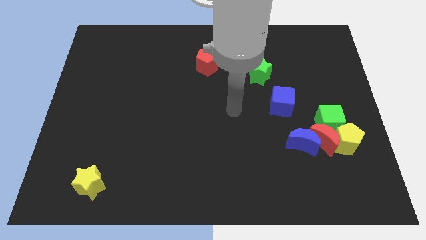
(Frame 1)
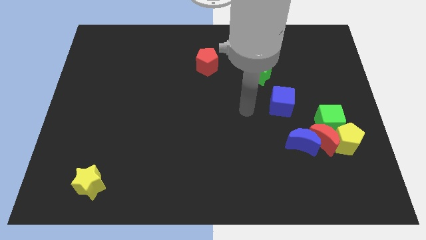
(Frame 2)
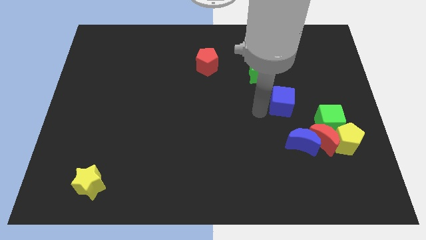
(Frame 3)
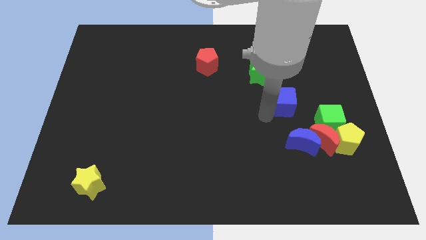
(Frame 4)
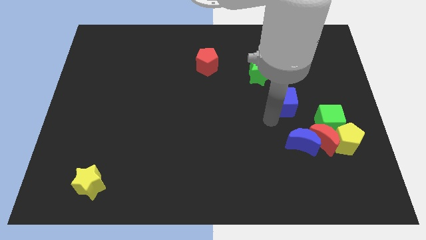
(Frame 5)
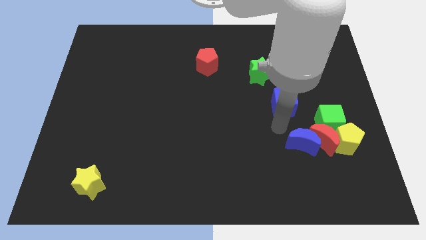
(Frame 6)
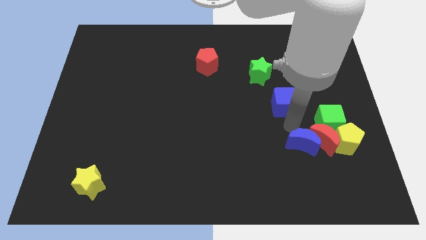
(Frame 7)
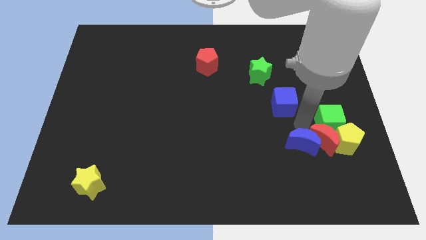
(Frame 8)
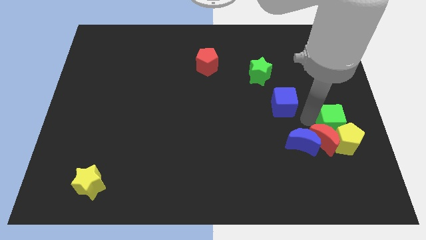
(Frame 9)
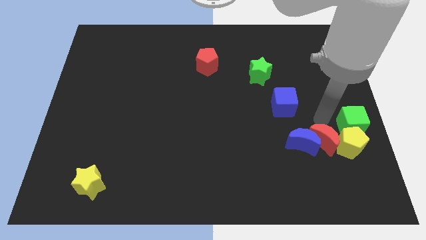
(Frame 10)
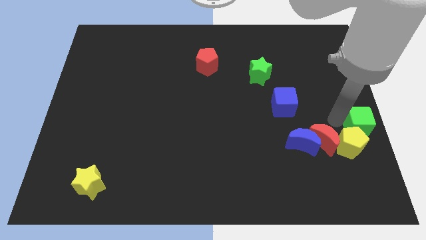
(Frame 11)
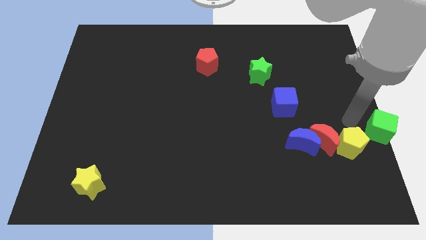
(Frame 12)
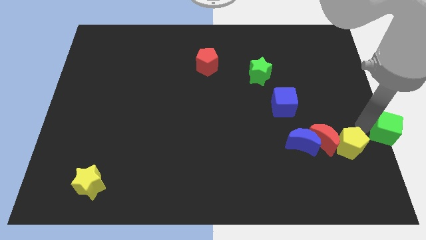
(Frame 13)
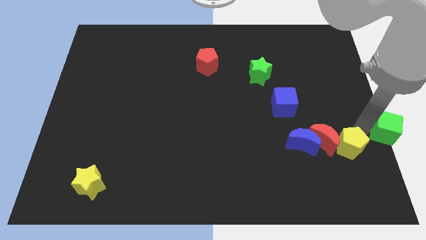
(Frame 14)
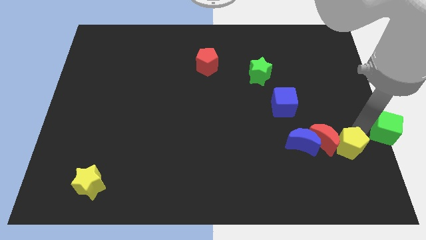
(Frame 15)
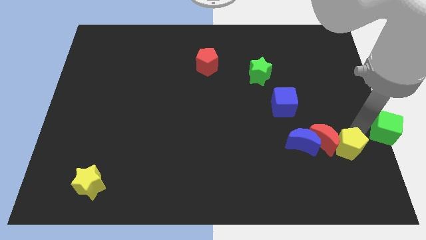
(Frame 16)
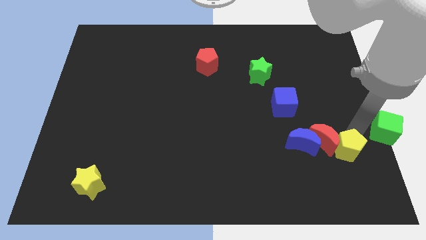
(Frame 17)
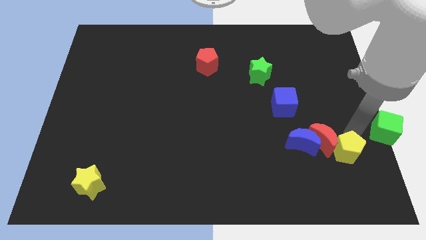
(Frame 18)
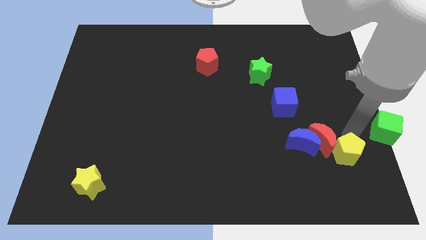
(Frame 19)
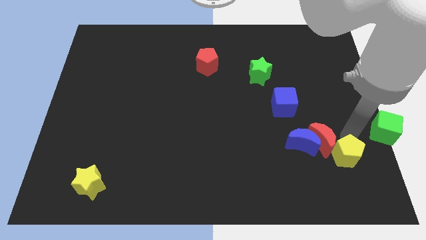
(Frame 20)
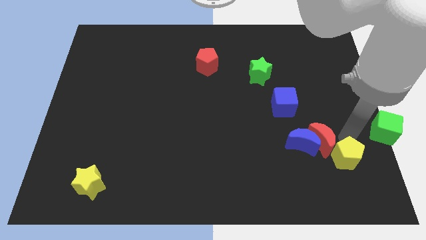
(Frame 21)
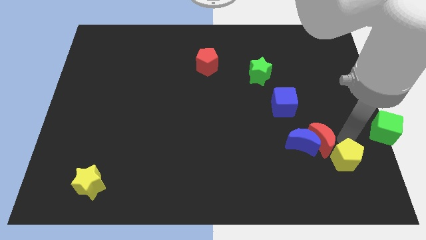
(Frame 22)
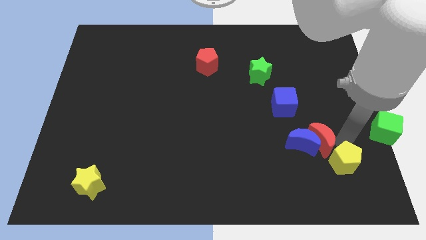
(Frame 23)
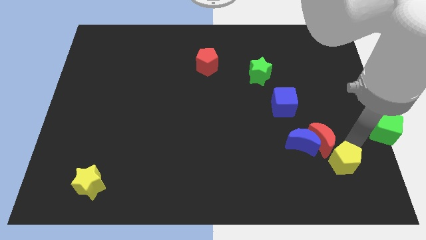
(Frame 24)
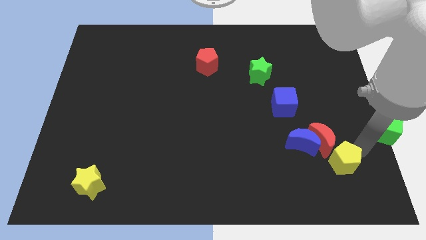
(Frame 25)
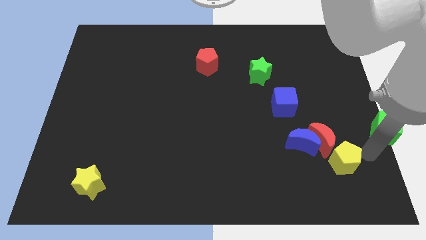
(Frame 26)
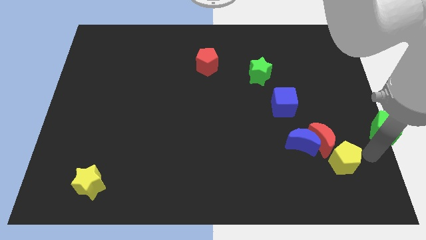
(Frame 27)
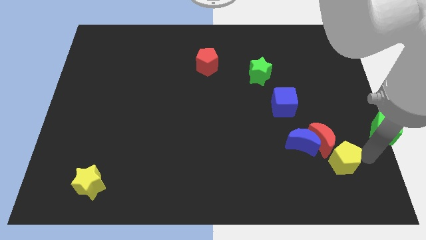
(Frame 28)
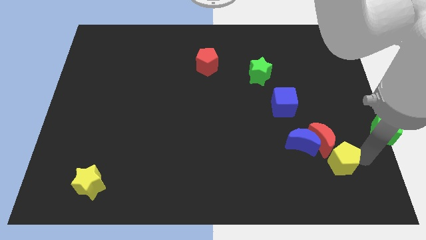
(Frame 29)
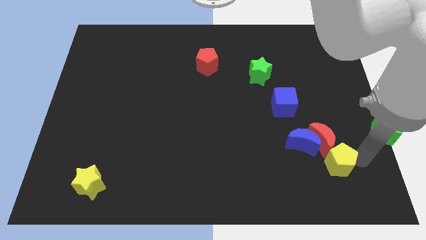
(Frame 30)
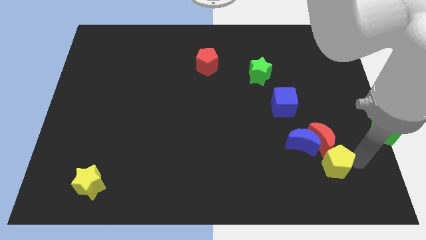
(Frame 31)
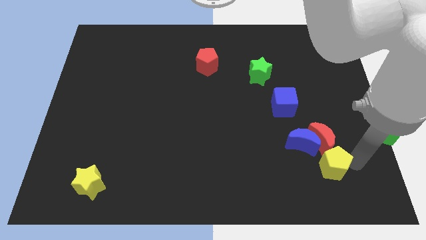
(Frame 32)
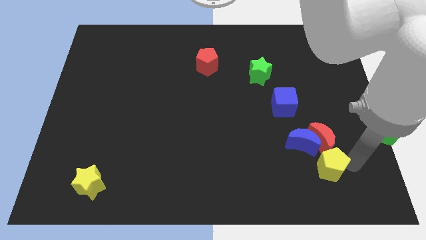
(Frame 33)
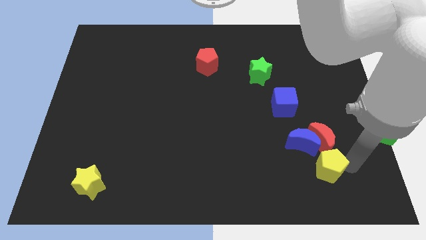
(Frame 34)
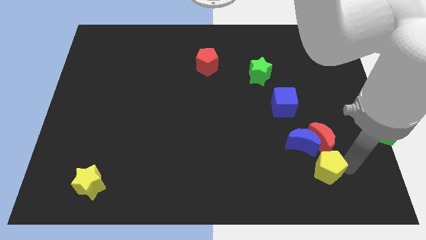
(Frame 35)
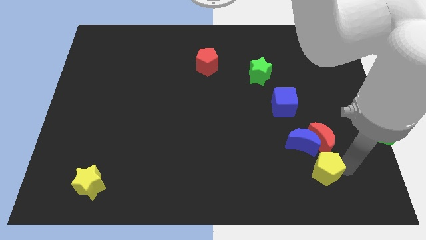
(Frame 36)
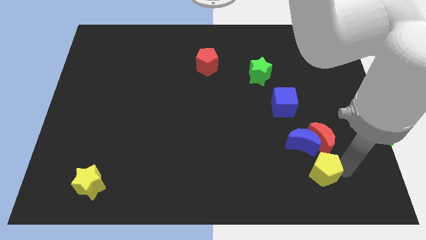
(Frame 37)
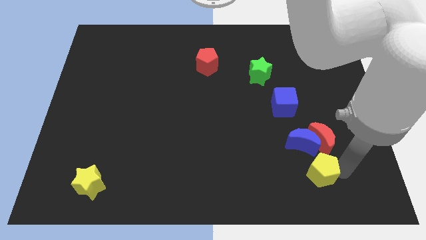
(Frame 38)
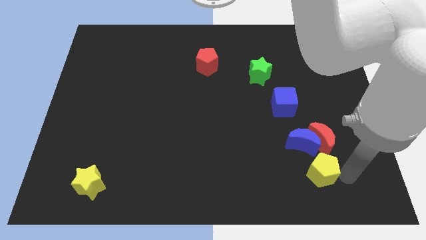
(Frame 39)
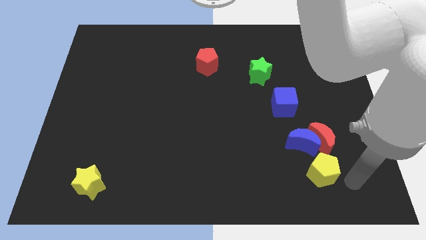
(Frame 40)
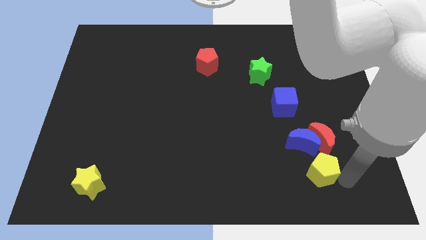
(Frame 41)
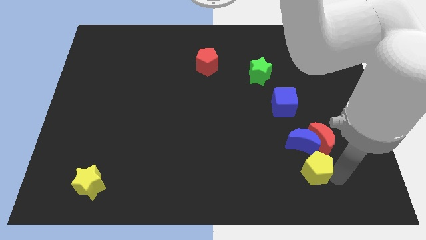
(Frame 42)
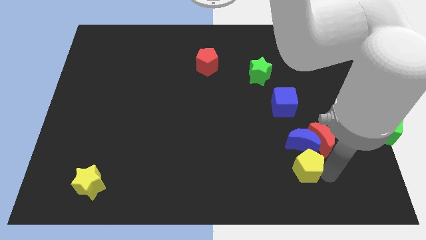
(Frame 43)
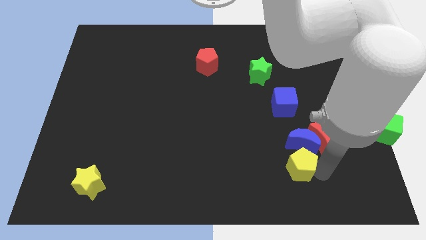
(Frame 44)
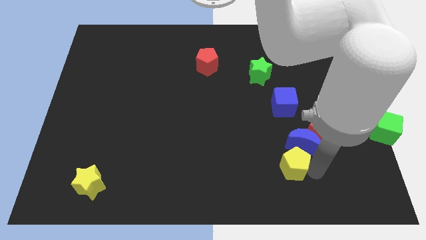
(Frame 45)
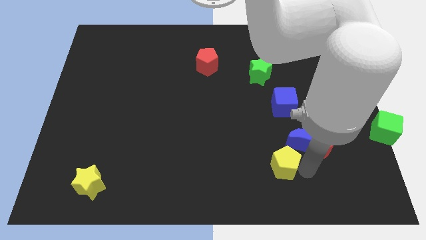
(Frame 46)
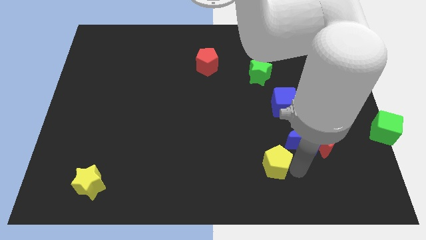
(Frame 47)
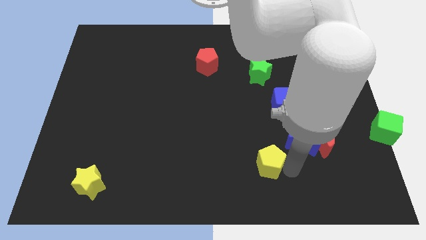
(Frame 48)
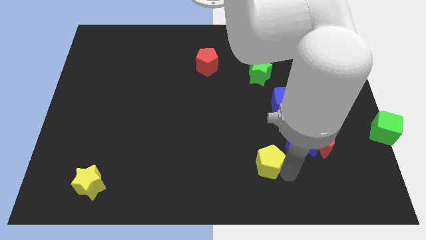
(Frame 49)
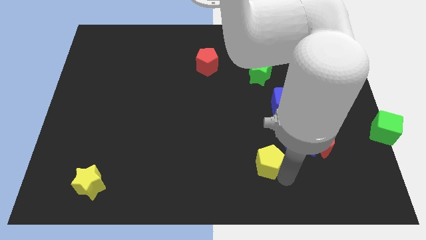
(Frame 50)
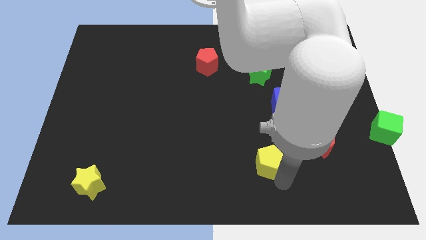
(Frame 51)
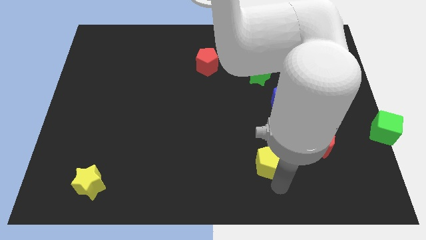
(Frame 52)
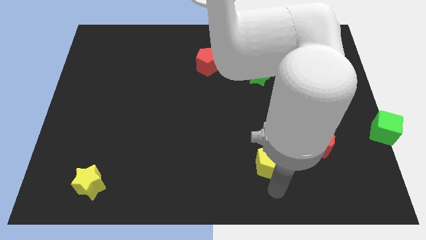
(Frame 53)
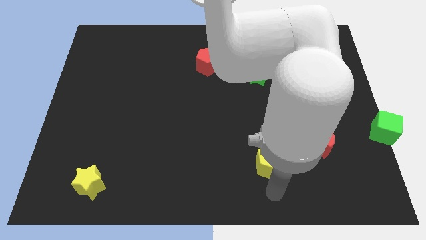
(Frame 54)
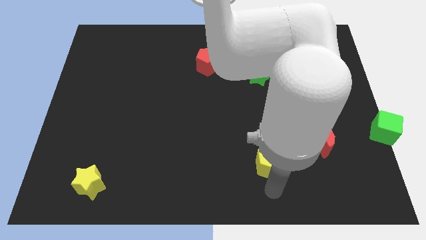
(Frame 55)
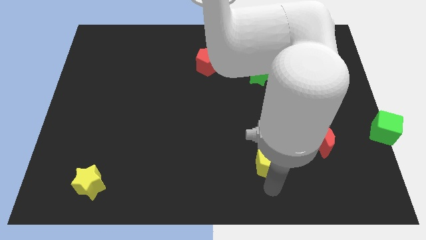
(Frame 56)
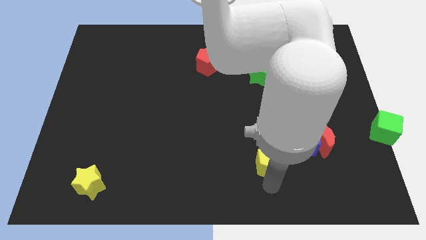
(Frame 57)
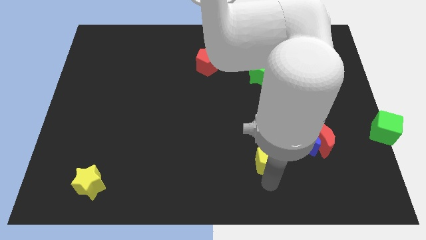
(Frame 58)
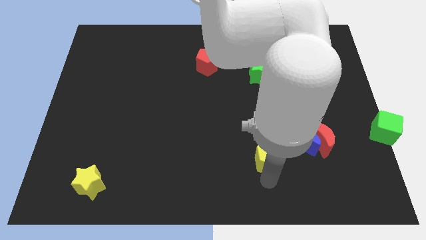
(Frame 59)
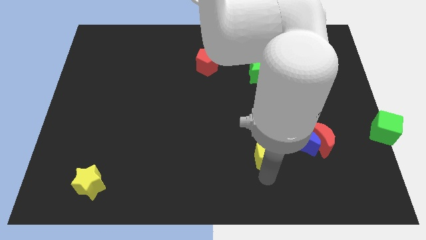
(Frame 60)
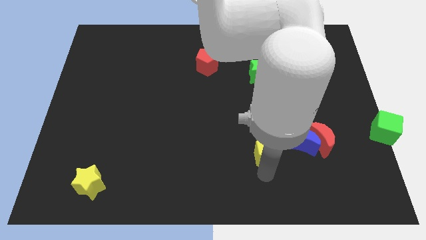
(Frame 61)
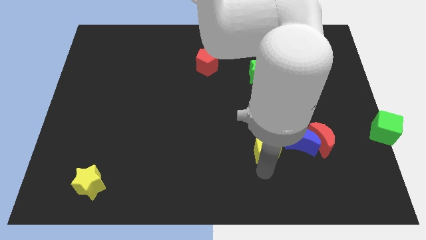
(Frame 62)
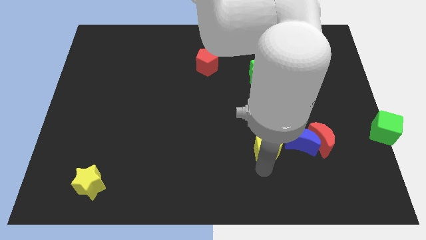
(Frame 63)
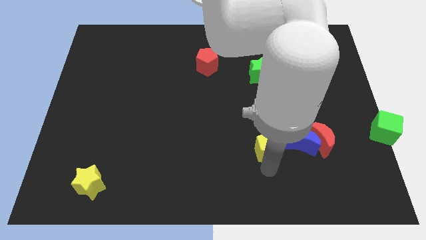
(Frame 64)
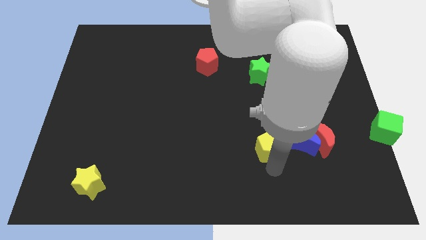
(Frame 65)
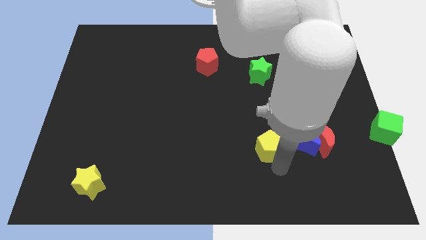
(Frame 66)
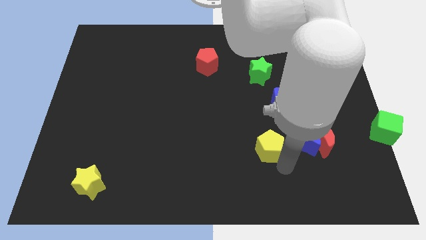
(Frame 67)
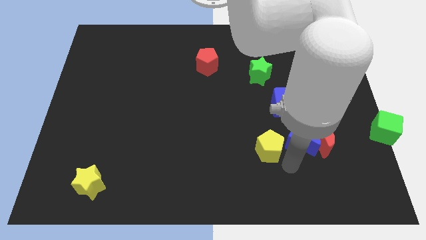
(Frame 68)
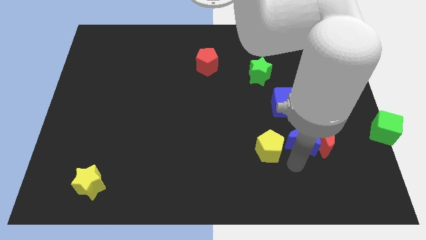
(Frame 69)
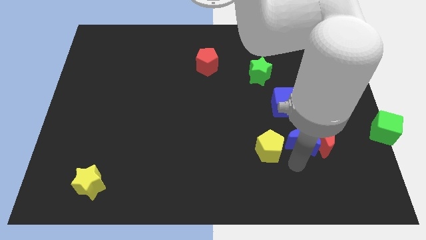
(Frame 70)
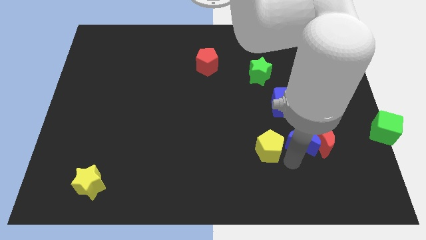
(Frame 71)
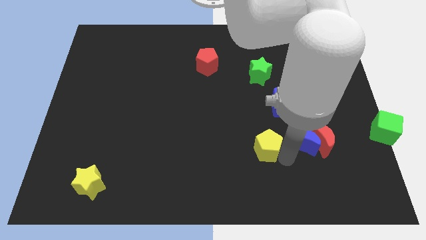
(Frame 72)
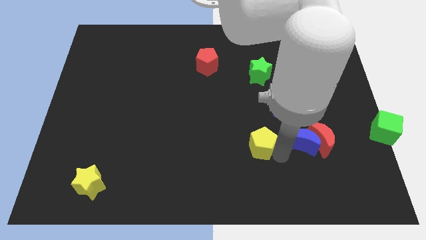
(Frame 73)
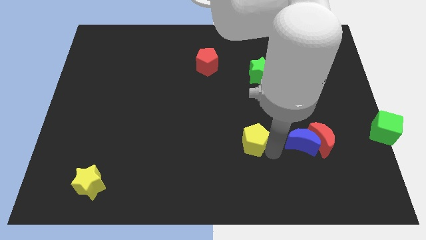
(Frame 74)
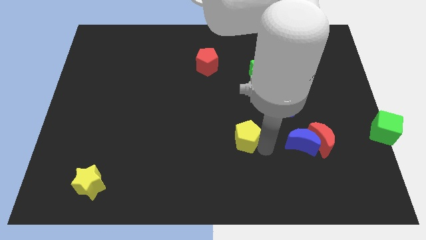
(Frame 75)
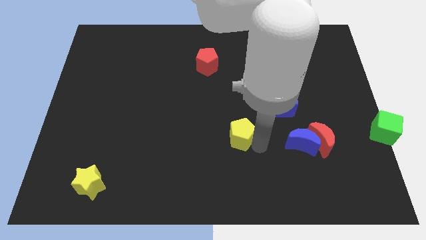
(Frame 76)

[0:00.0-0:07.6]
slide the yellow pentagon to the center
